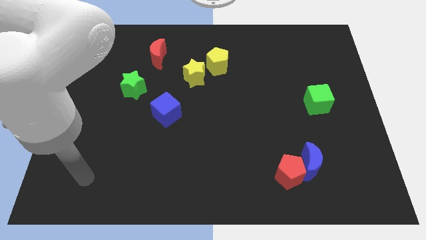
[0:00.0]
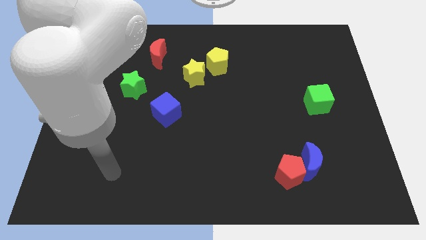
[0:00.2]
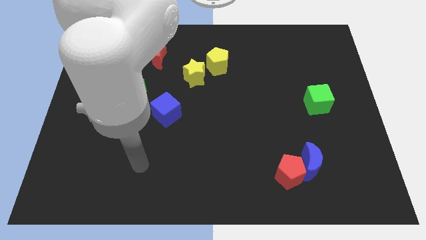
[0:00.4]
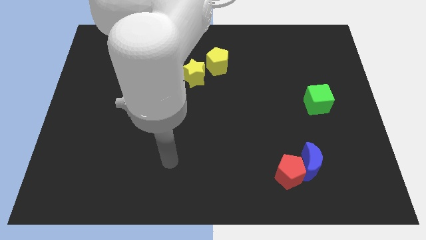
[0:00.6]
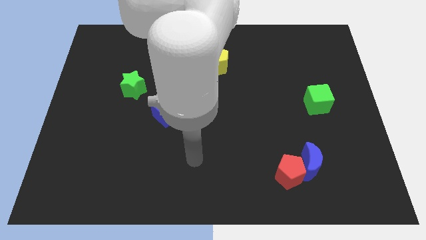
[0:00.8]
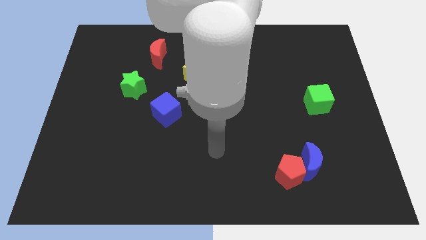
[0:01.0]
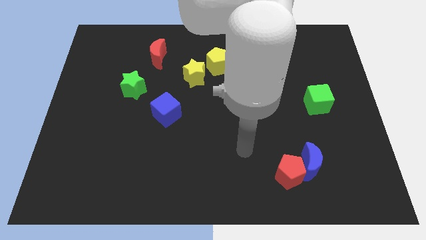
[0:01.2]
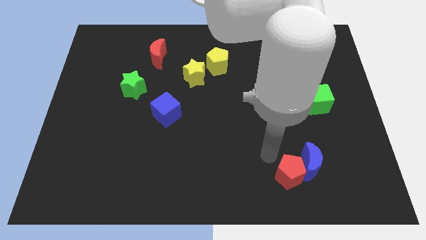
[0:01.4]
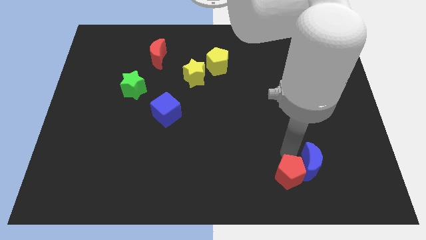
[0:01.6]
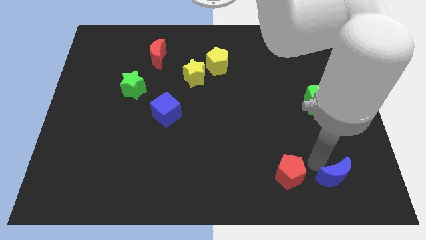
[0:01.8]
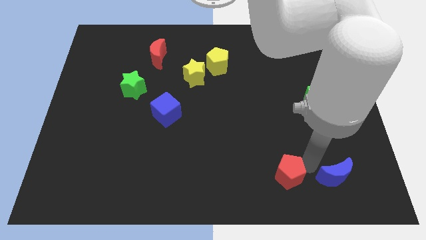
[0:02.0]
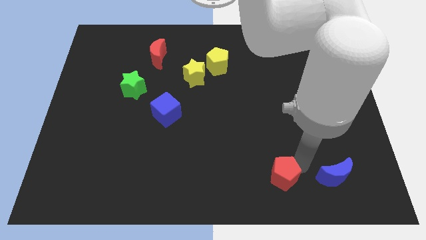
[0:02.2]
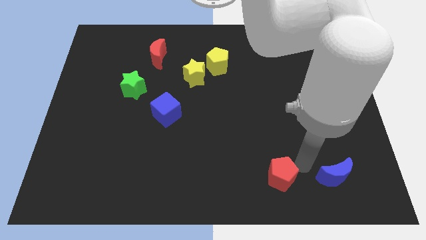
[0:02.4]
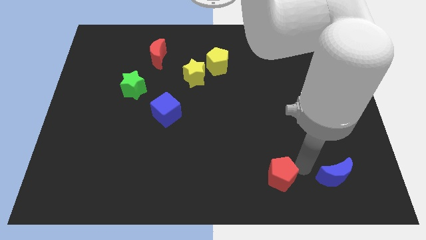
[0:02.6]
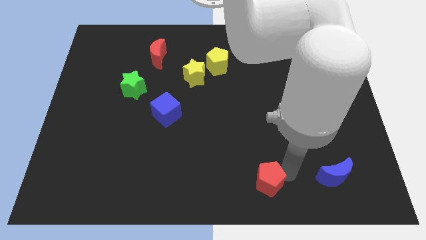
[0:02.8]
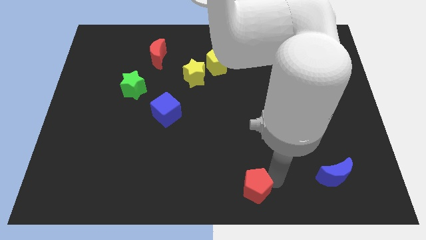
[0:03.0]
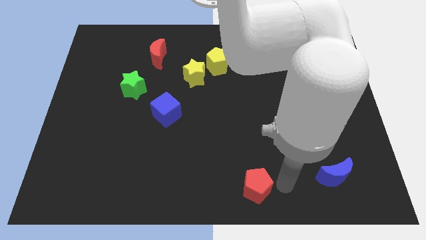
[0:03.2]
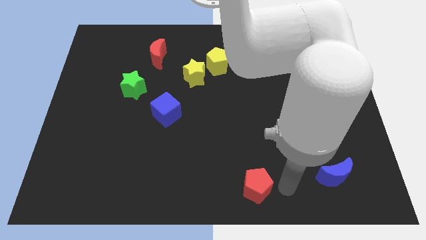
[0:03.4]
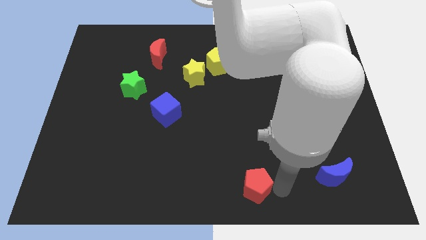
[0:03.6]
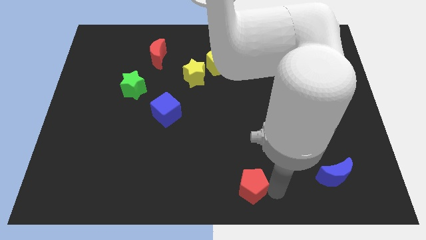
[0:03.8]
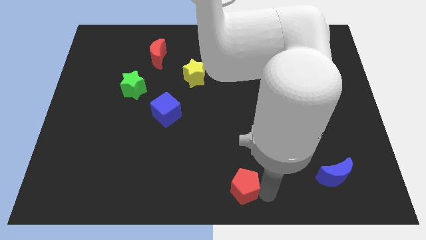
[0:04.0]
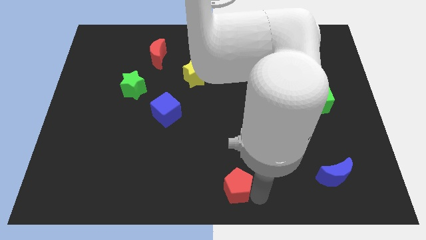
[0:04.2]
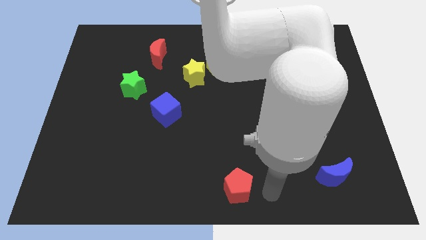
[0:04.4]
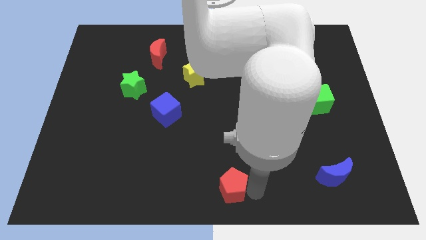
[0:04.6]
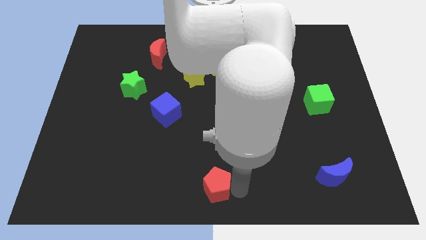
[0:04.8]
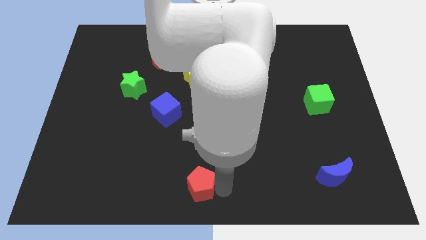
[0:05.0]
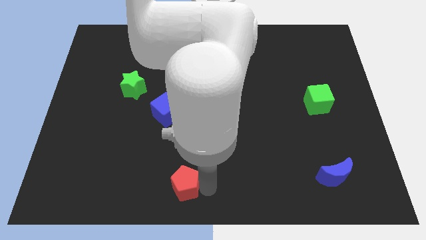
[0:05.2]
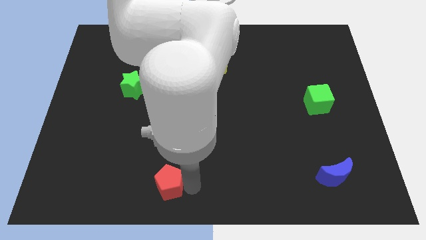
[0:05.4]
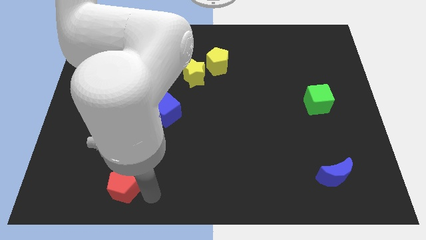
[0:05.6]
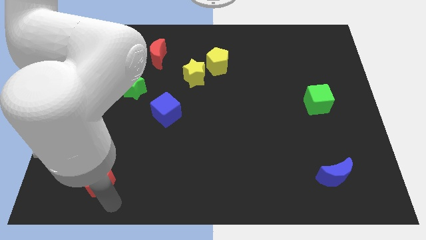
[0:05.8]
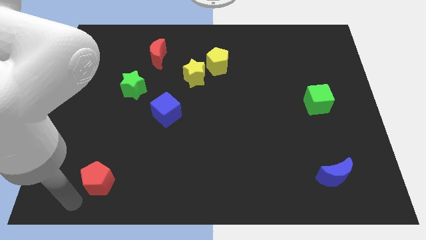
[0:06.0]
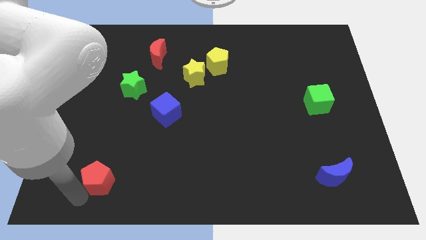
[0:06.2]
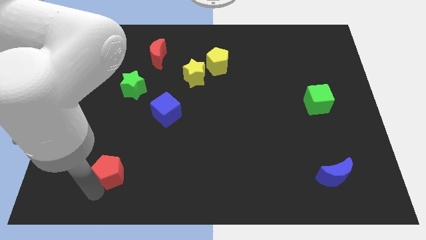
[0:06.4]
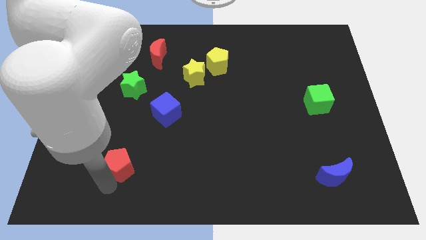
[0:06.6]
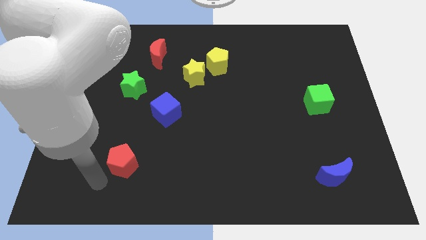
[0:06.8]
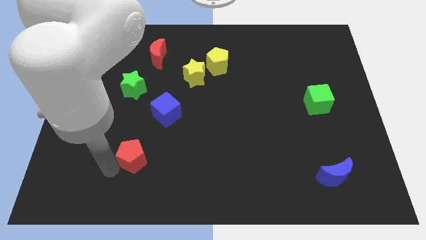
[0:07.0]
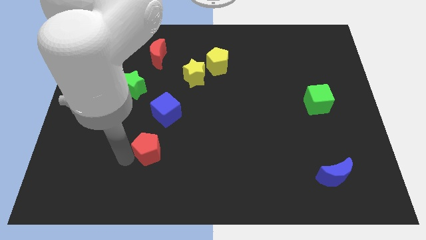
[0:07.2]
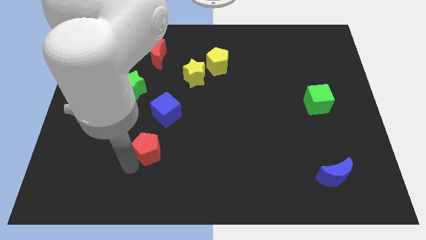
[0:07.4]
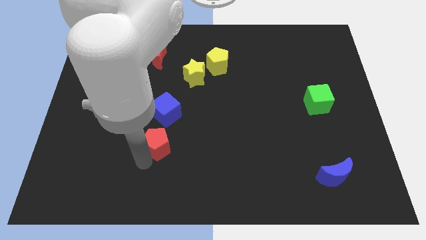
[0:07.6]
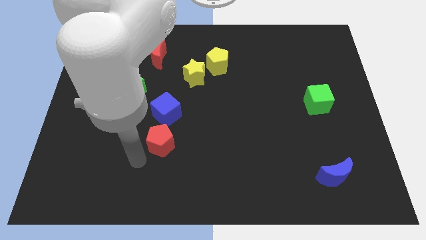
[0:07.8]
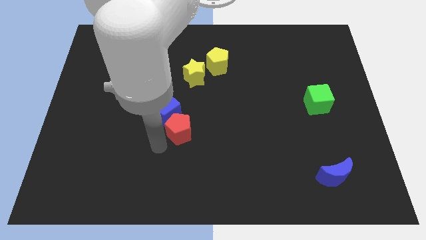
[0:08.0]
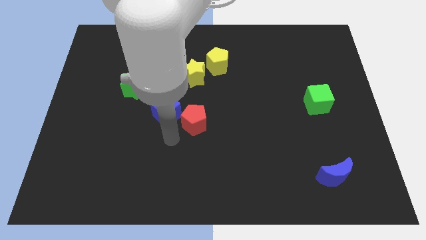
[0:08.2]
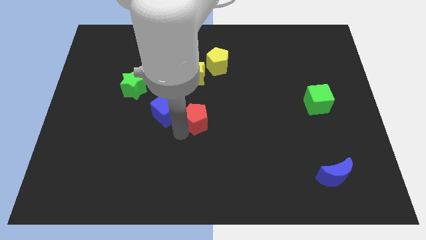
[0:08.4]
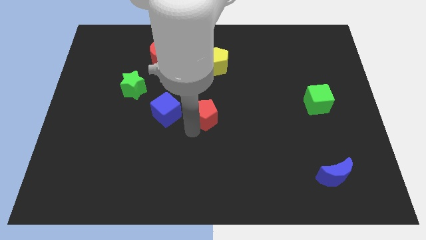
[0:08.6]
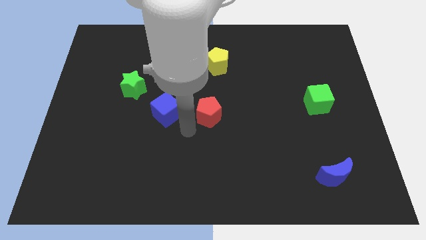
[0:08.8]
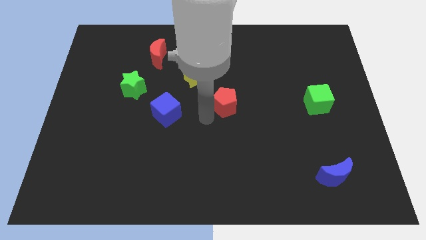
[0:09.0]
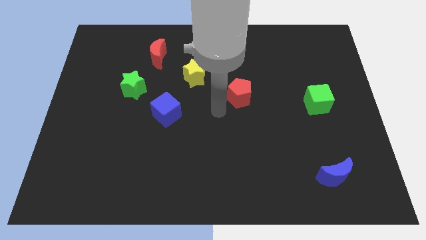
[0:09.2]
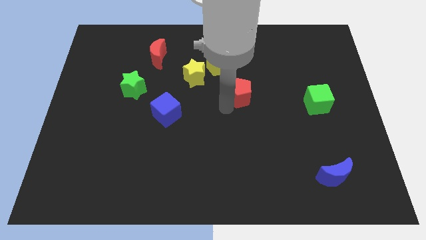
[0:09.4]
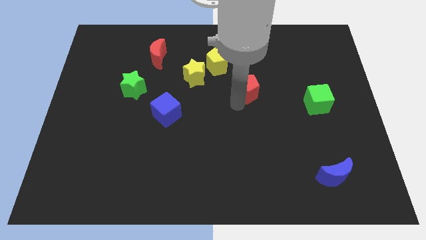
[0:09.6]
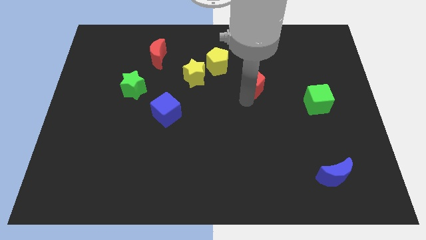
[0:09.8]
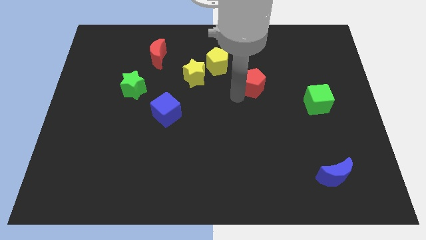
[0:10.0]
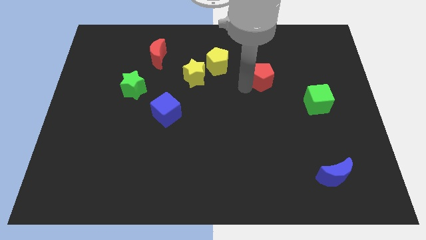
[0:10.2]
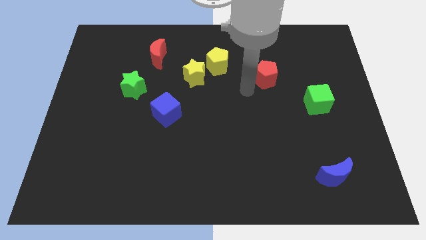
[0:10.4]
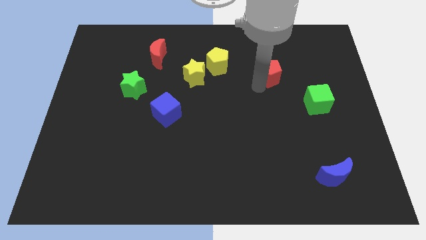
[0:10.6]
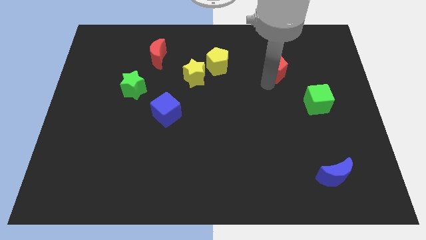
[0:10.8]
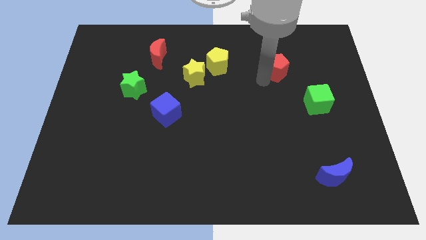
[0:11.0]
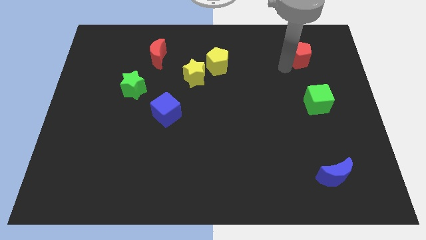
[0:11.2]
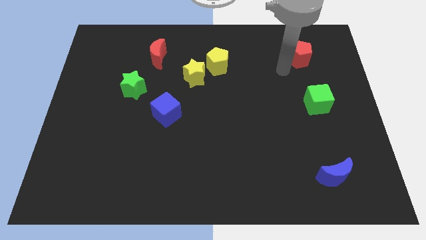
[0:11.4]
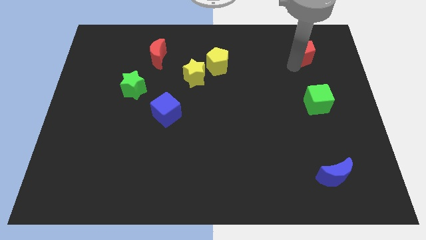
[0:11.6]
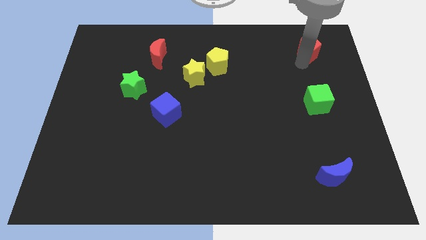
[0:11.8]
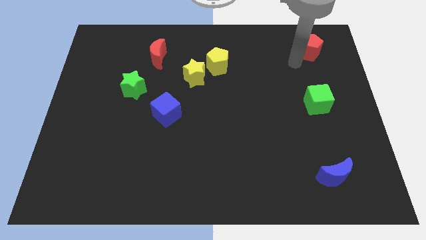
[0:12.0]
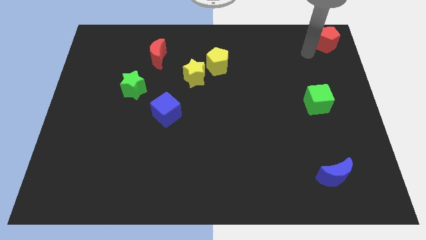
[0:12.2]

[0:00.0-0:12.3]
move the red pentagon to the top right of the board

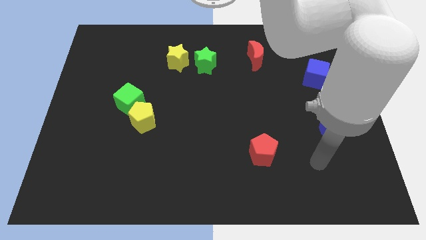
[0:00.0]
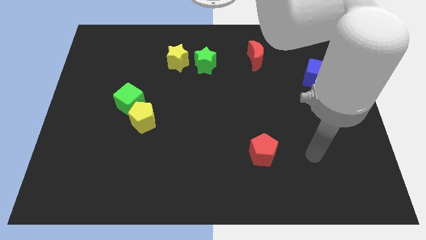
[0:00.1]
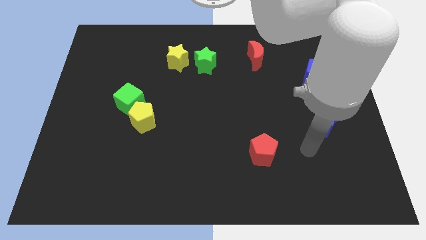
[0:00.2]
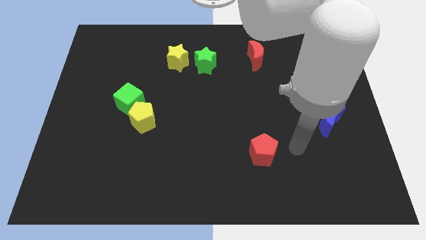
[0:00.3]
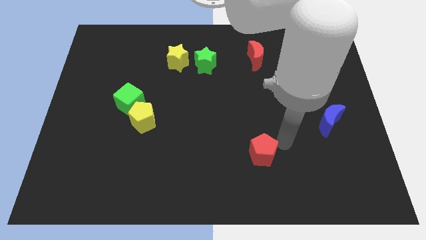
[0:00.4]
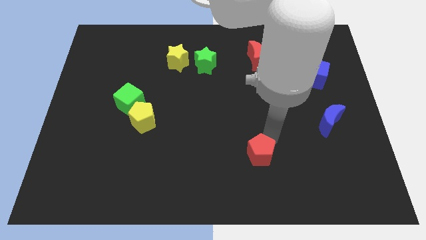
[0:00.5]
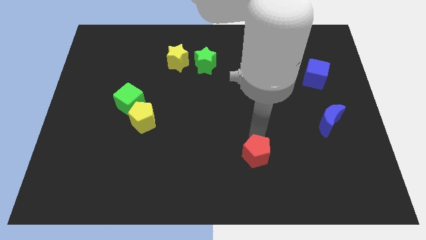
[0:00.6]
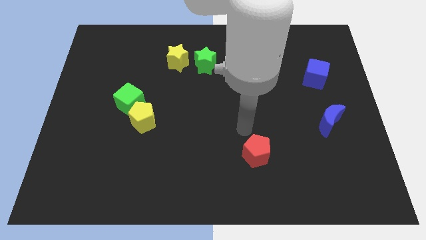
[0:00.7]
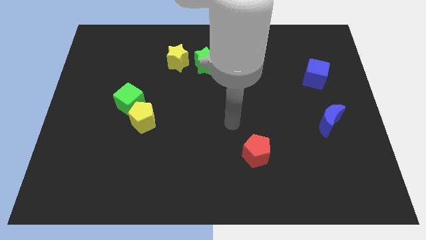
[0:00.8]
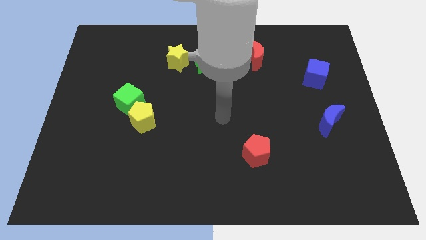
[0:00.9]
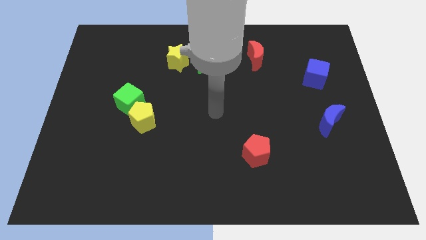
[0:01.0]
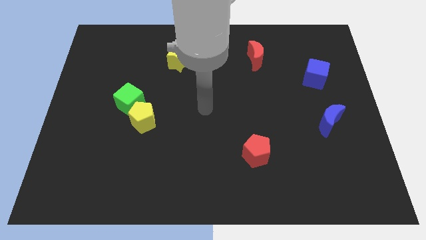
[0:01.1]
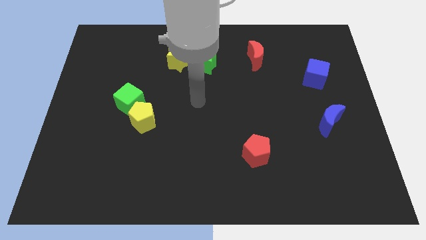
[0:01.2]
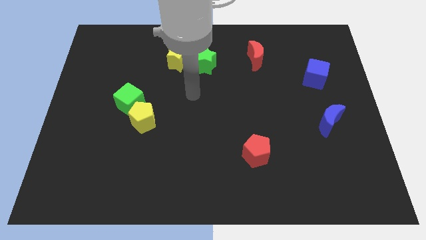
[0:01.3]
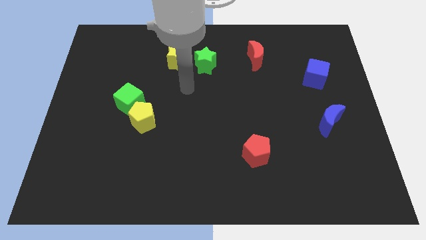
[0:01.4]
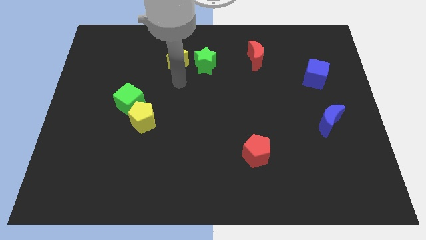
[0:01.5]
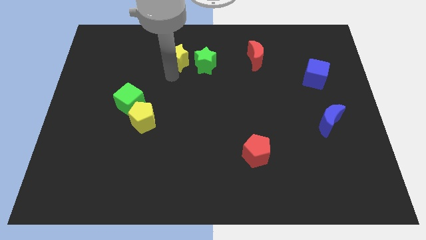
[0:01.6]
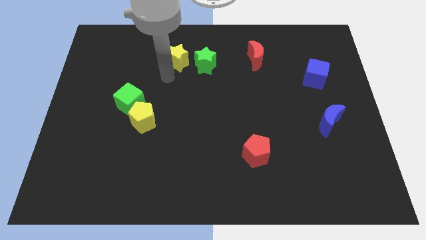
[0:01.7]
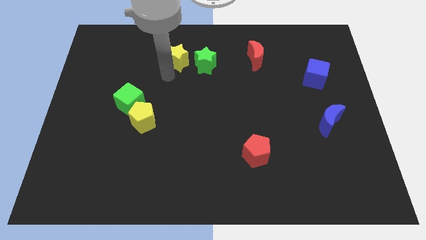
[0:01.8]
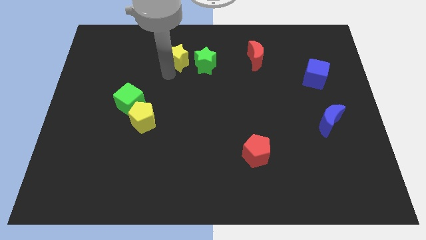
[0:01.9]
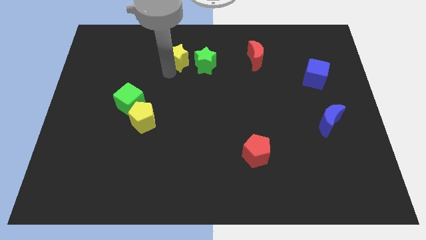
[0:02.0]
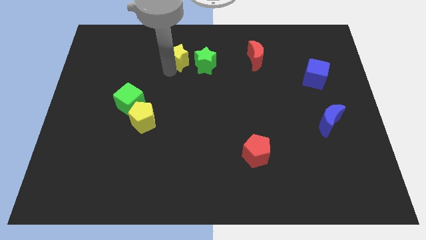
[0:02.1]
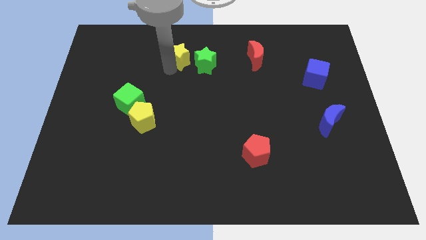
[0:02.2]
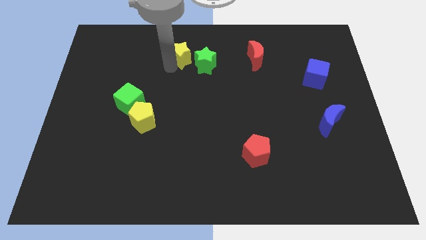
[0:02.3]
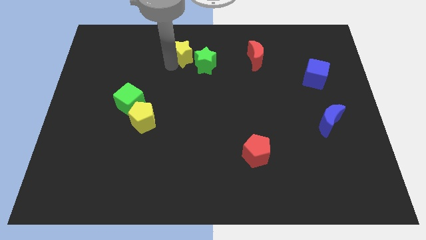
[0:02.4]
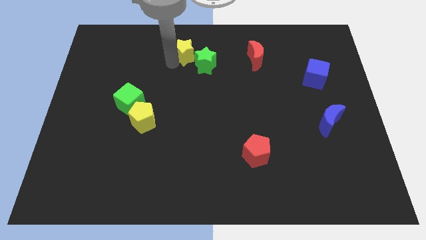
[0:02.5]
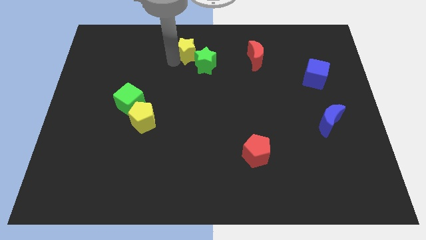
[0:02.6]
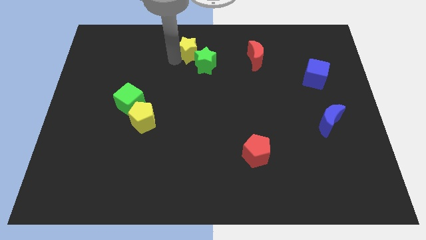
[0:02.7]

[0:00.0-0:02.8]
push the yellow star to the top side
